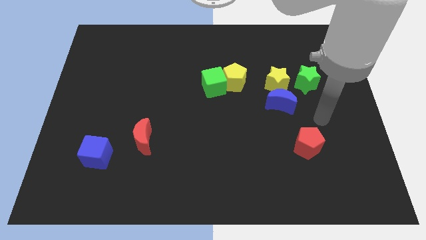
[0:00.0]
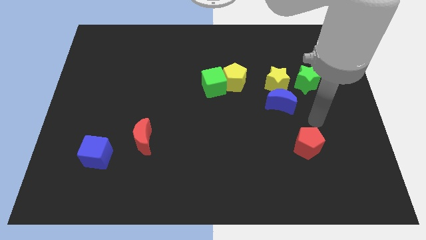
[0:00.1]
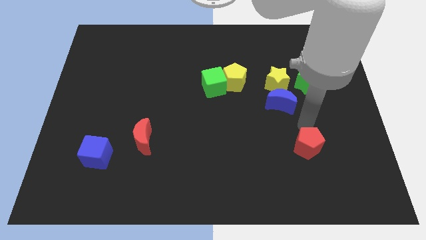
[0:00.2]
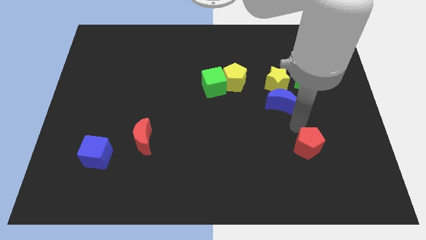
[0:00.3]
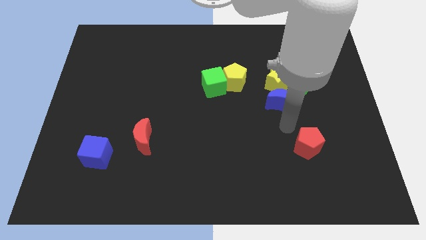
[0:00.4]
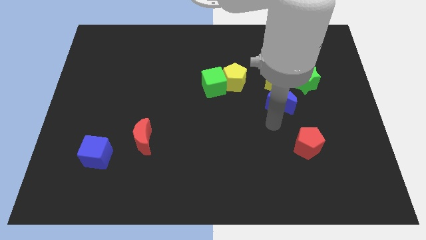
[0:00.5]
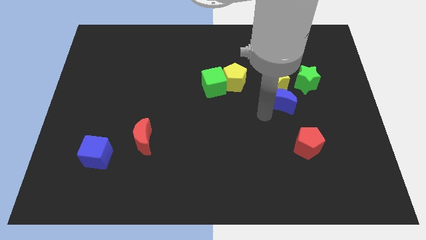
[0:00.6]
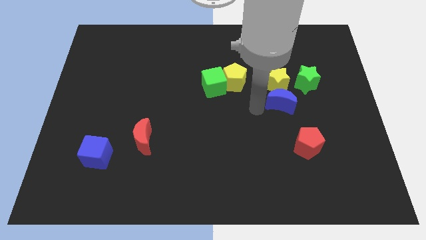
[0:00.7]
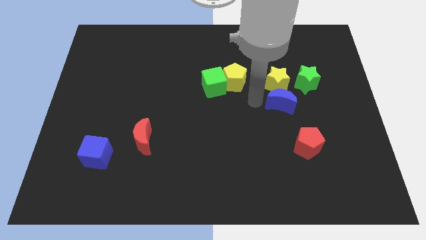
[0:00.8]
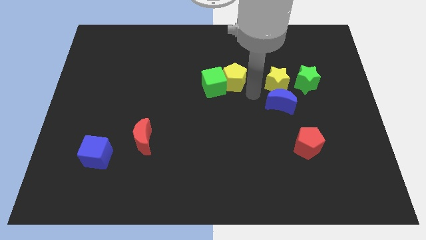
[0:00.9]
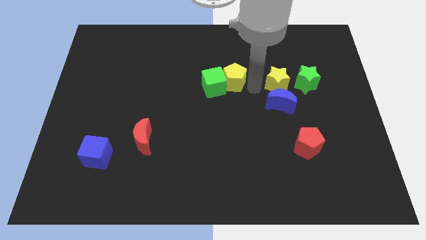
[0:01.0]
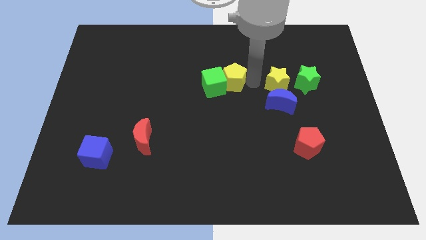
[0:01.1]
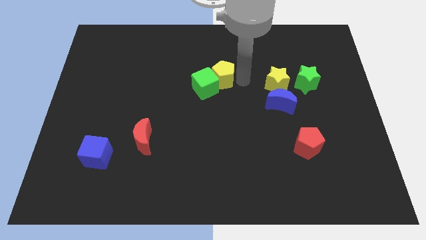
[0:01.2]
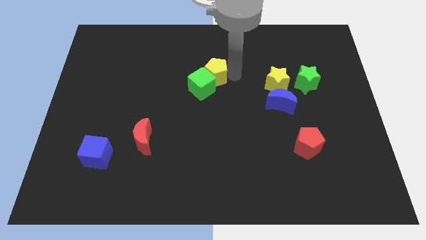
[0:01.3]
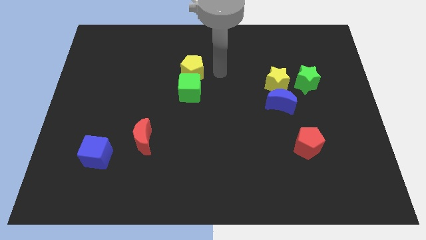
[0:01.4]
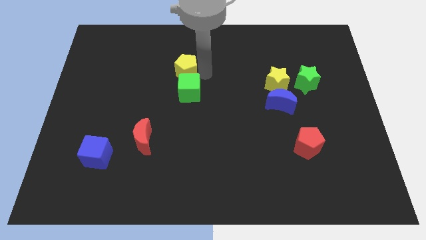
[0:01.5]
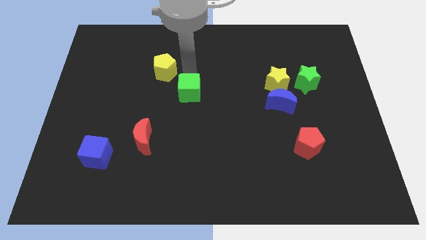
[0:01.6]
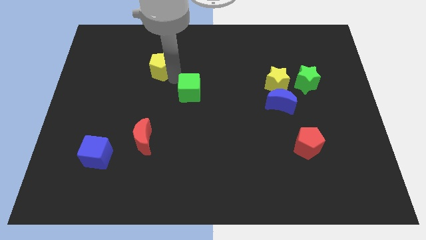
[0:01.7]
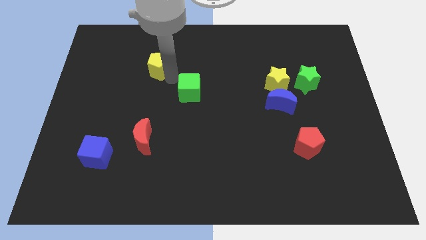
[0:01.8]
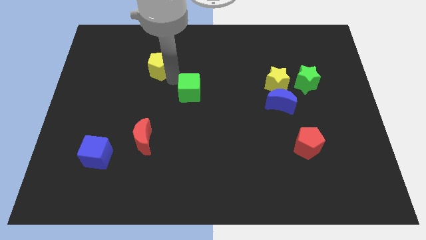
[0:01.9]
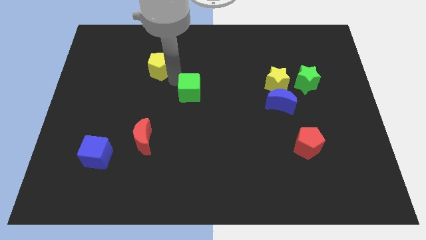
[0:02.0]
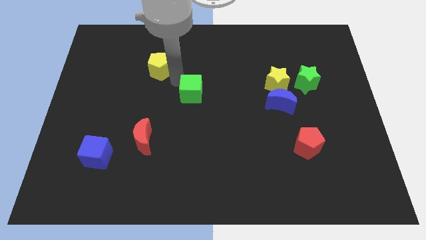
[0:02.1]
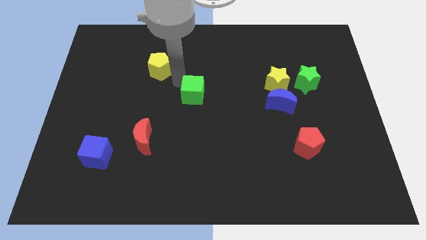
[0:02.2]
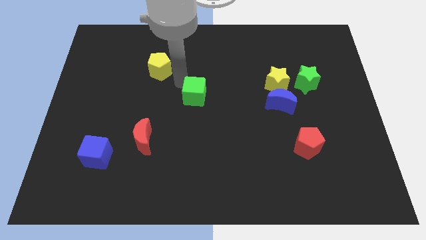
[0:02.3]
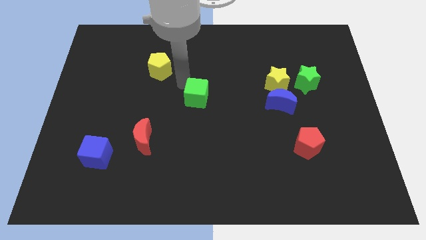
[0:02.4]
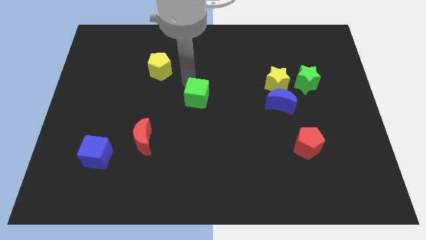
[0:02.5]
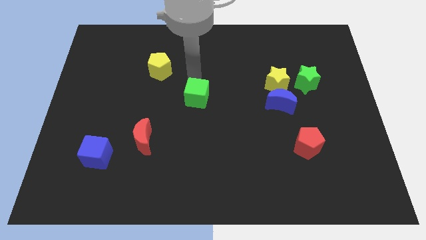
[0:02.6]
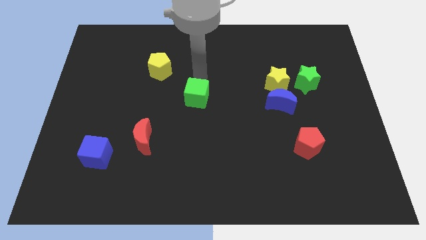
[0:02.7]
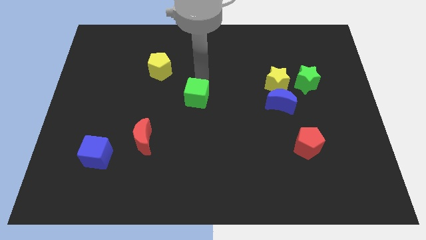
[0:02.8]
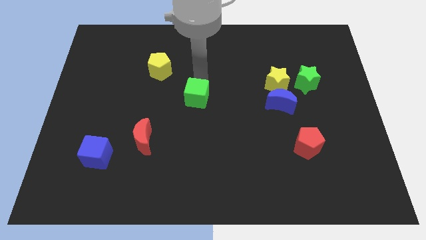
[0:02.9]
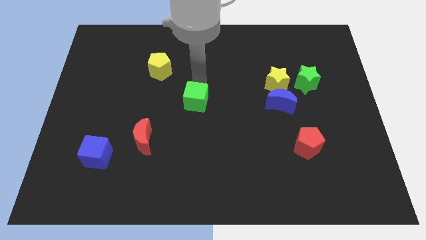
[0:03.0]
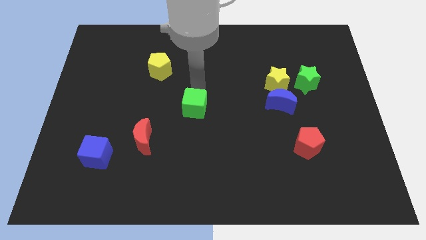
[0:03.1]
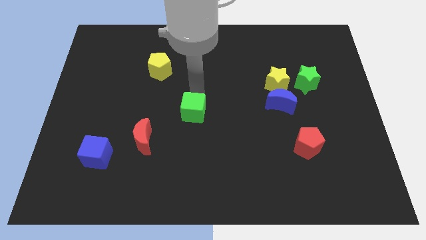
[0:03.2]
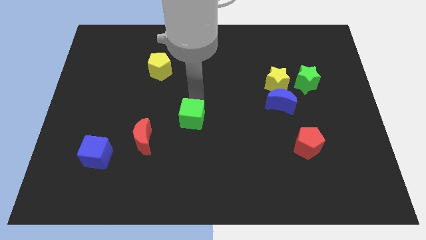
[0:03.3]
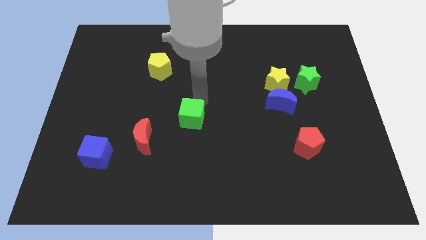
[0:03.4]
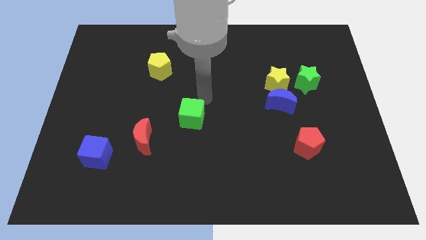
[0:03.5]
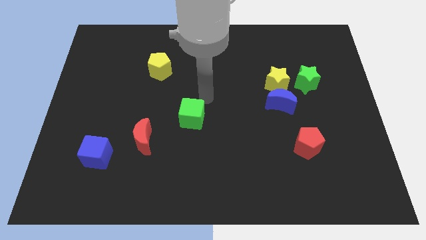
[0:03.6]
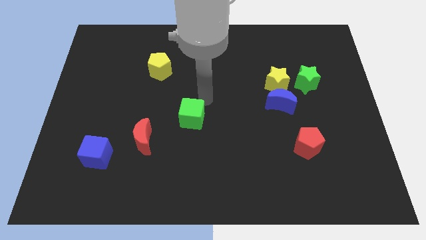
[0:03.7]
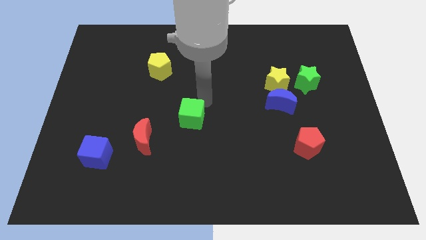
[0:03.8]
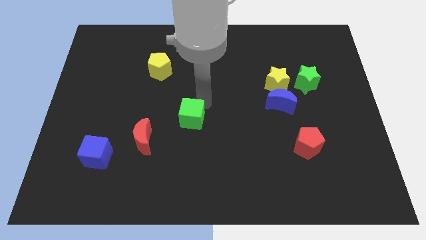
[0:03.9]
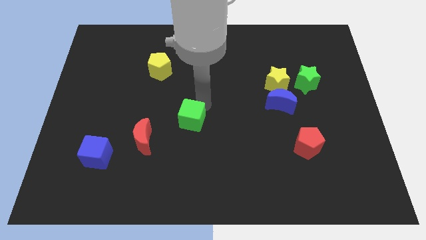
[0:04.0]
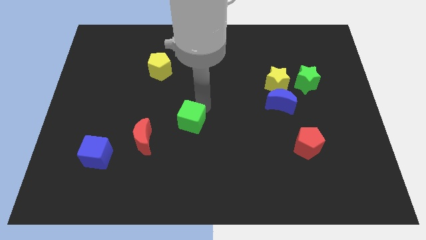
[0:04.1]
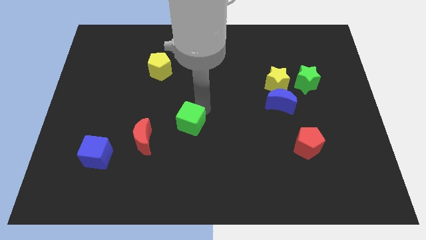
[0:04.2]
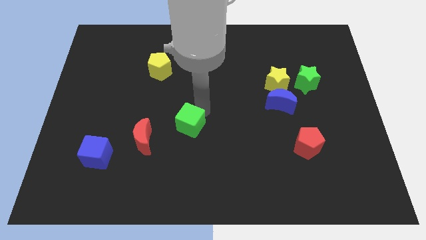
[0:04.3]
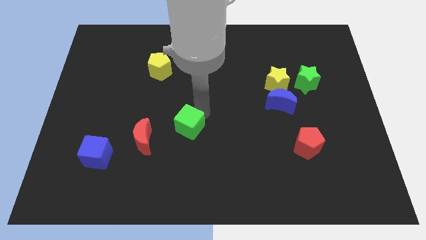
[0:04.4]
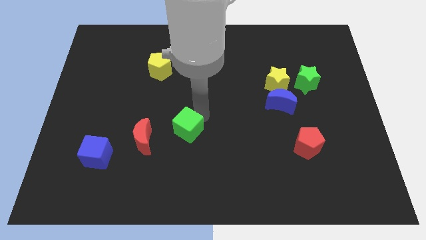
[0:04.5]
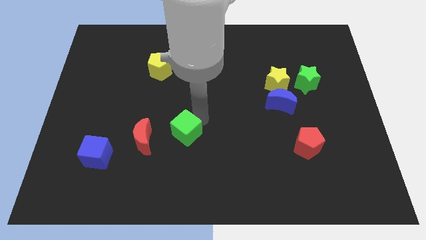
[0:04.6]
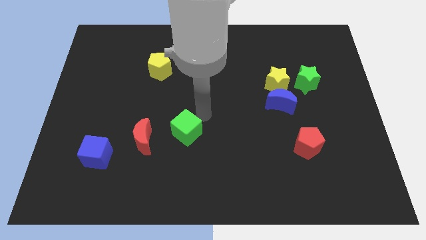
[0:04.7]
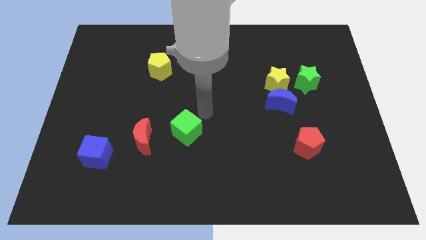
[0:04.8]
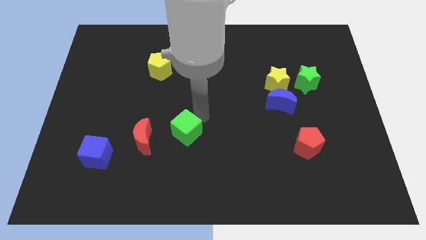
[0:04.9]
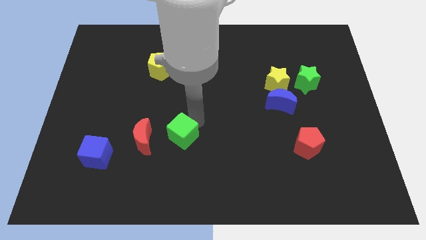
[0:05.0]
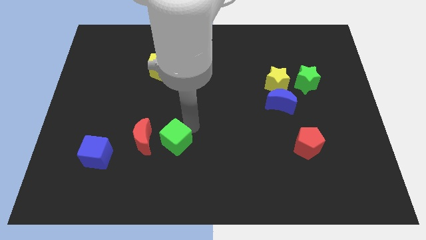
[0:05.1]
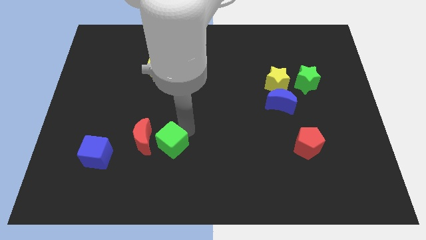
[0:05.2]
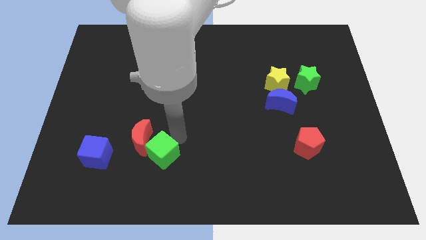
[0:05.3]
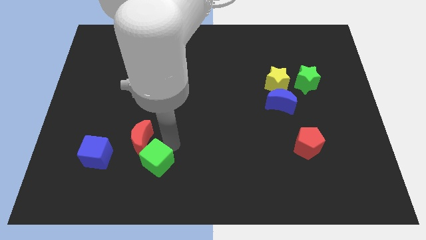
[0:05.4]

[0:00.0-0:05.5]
move the green cube to the bottom of the red moon

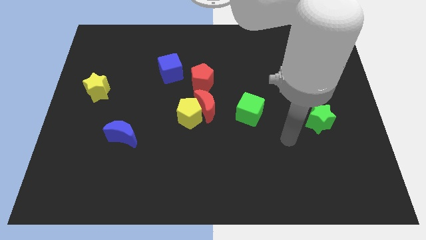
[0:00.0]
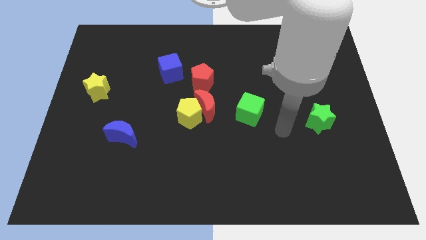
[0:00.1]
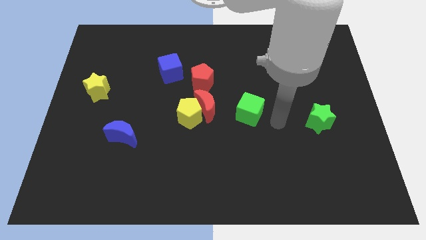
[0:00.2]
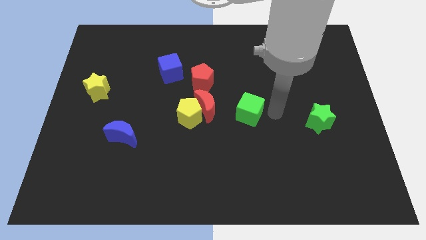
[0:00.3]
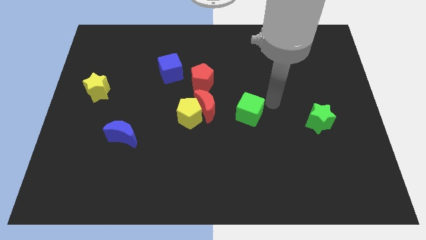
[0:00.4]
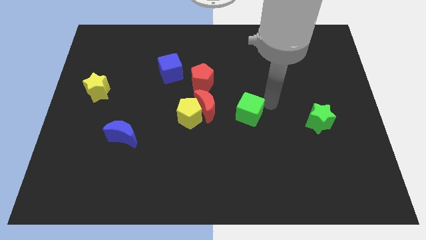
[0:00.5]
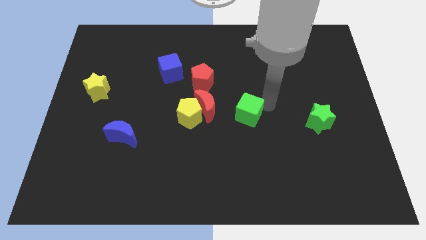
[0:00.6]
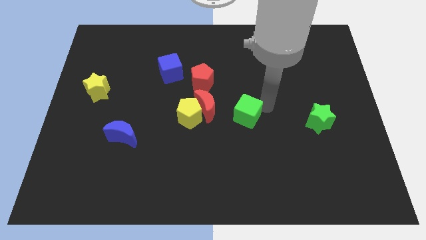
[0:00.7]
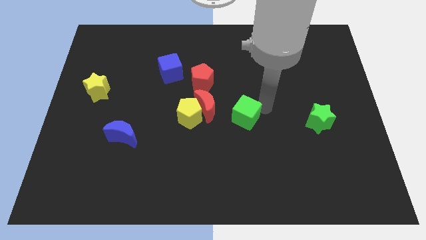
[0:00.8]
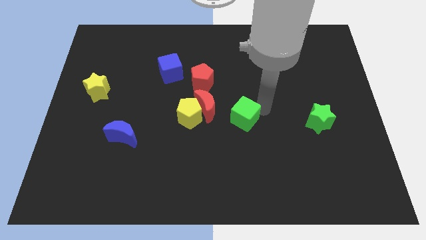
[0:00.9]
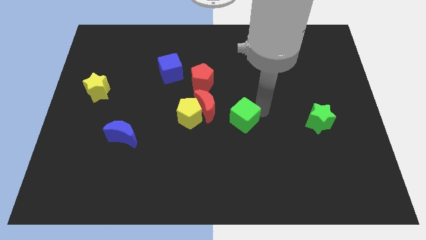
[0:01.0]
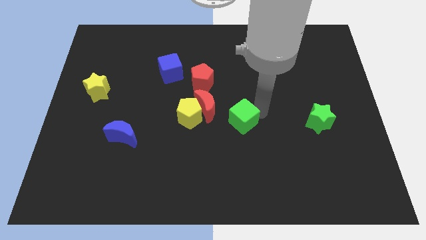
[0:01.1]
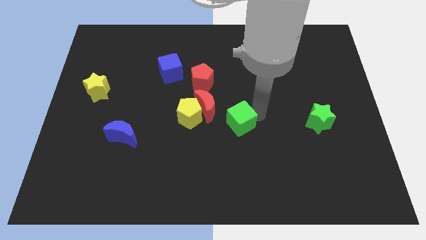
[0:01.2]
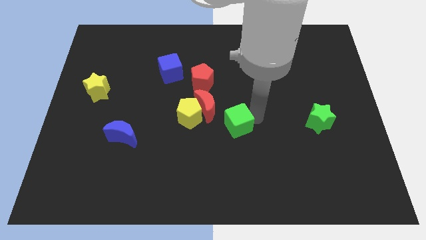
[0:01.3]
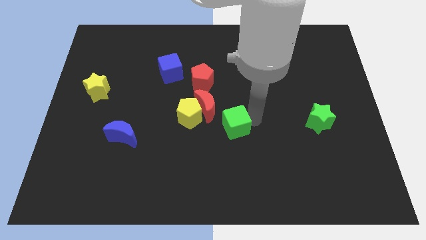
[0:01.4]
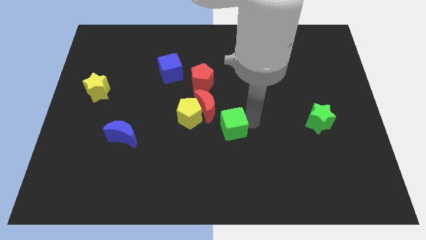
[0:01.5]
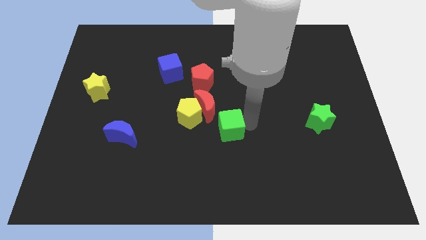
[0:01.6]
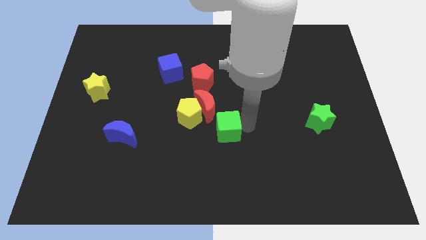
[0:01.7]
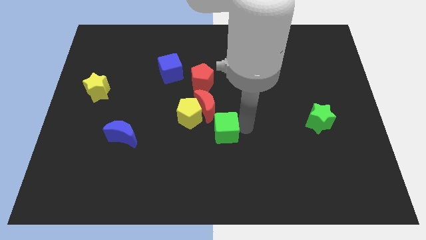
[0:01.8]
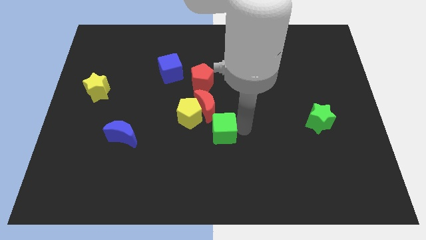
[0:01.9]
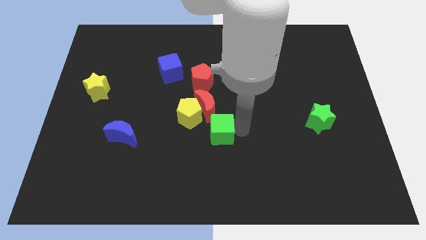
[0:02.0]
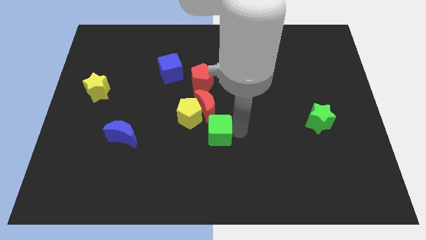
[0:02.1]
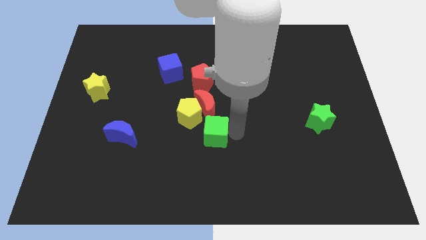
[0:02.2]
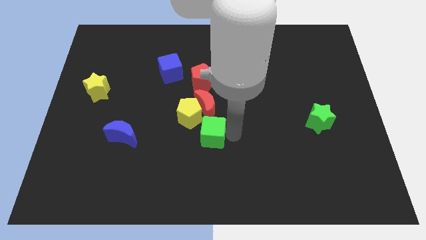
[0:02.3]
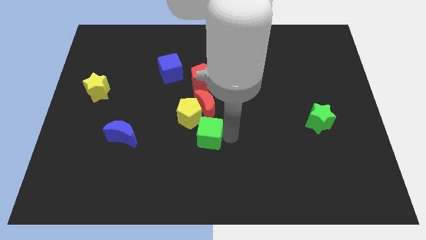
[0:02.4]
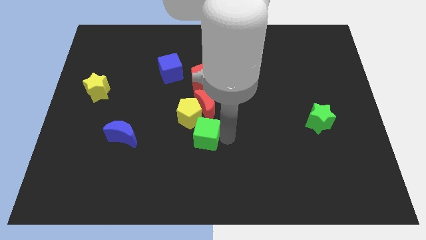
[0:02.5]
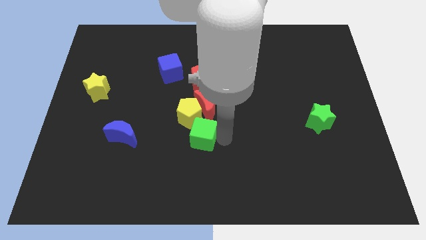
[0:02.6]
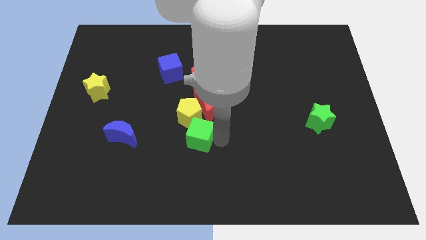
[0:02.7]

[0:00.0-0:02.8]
push the green cube to the bottom left side of the red moon
